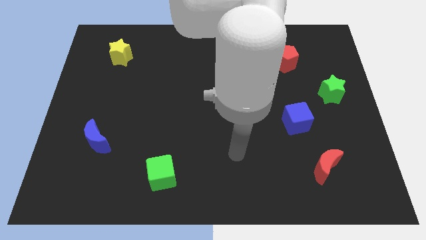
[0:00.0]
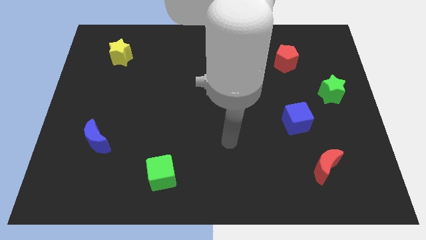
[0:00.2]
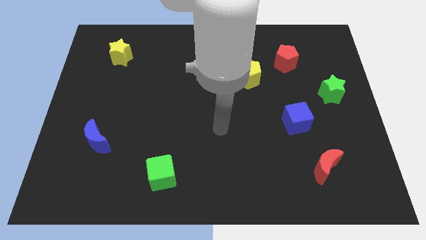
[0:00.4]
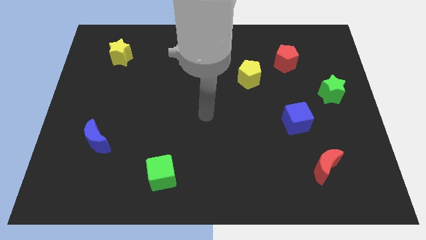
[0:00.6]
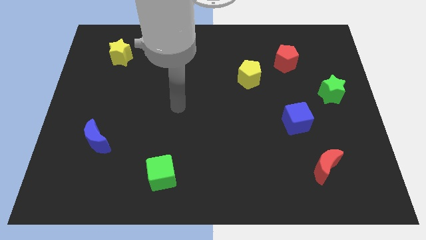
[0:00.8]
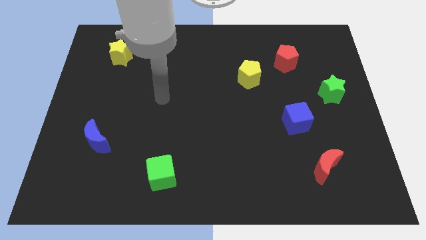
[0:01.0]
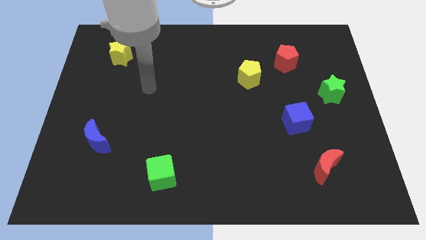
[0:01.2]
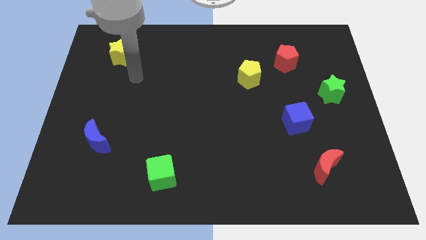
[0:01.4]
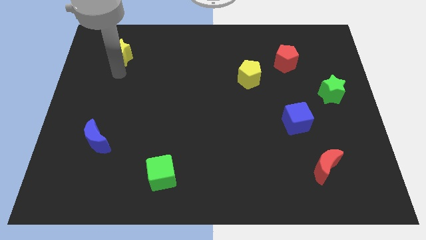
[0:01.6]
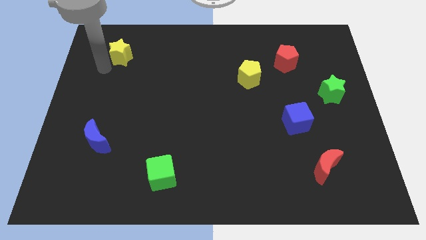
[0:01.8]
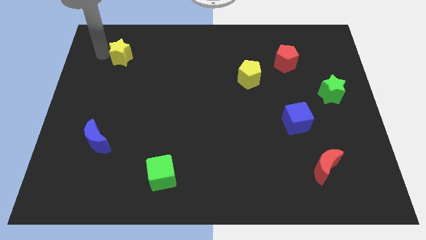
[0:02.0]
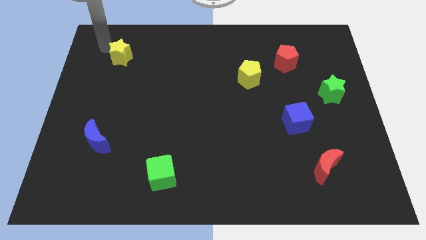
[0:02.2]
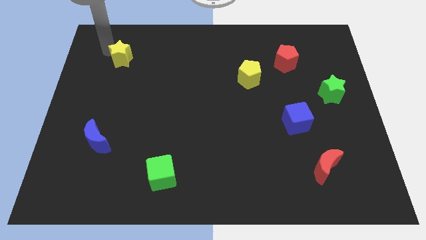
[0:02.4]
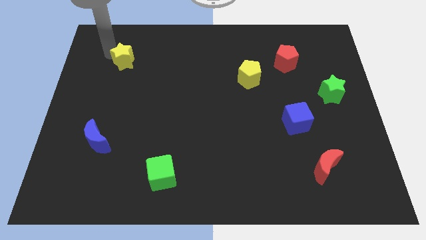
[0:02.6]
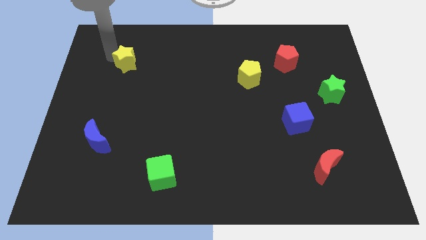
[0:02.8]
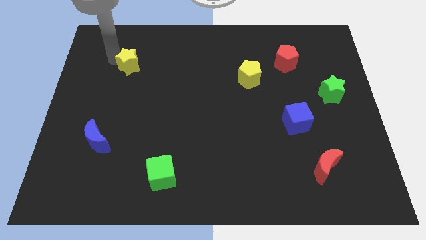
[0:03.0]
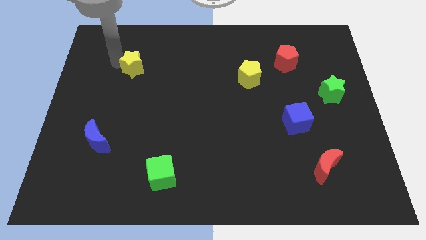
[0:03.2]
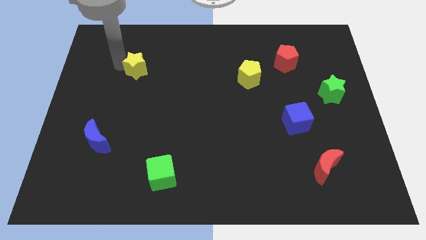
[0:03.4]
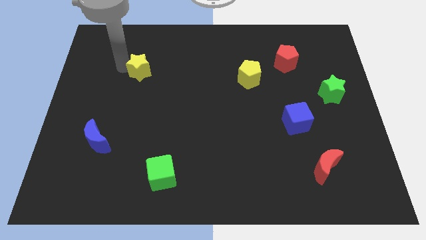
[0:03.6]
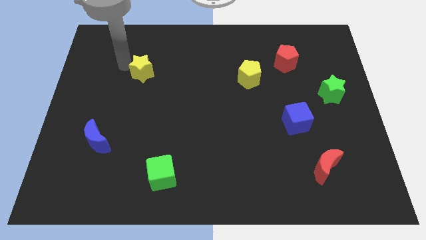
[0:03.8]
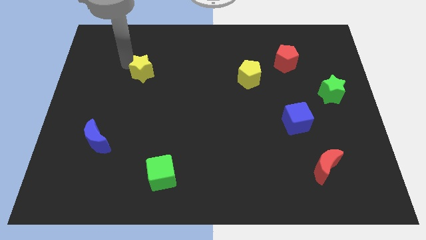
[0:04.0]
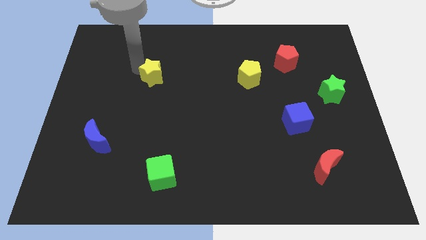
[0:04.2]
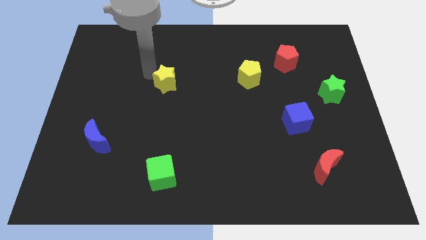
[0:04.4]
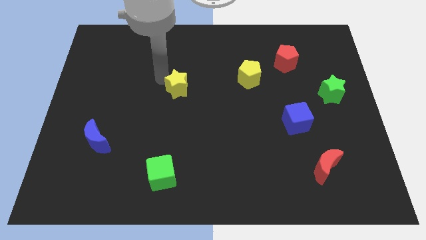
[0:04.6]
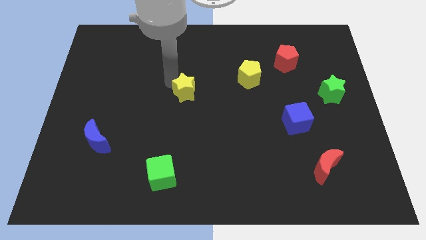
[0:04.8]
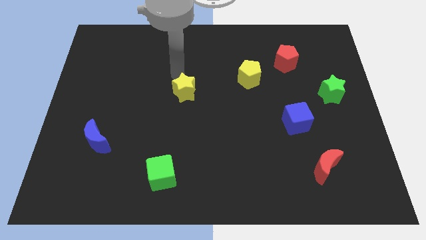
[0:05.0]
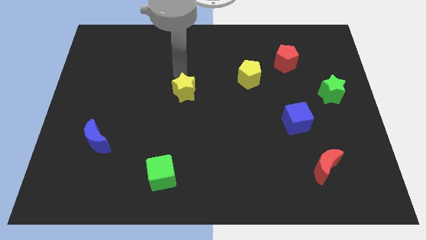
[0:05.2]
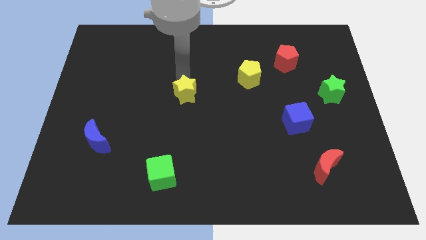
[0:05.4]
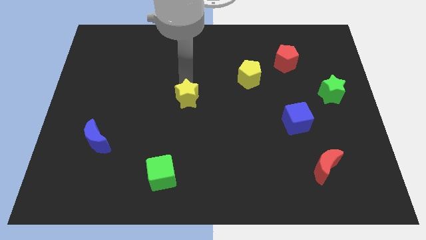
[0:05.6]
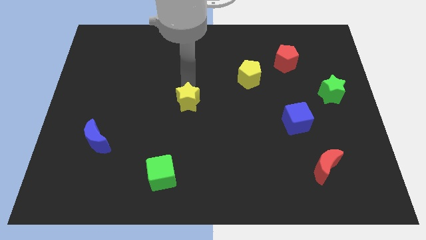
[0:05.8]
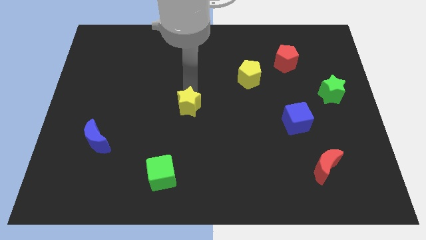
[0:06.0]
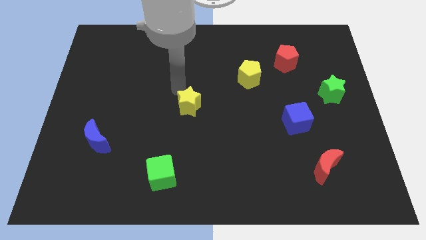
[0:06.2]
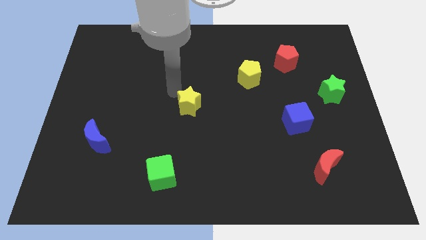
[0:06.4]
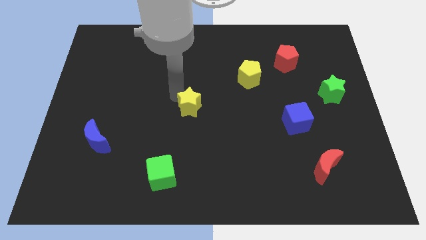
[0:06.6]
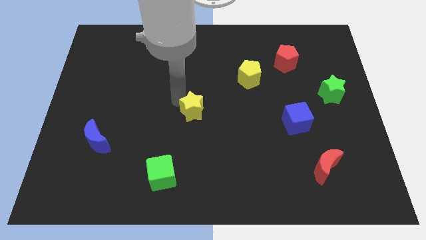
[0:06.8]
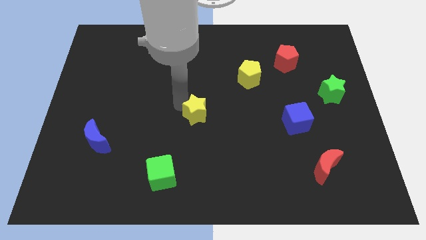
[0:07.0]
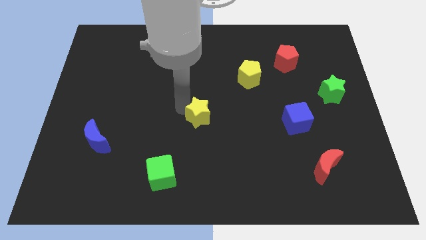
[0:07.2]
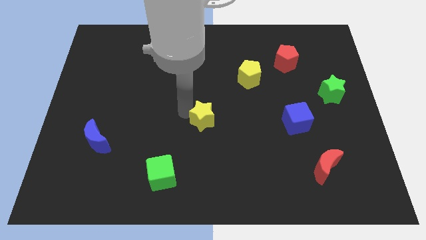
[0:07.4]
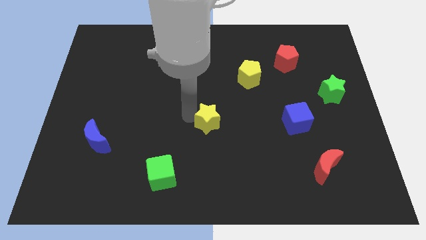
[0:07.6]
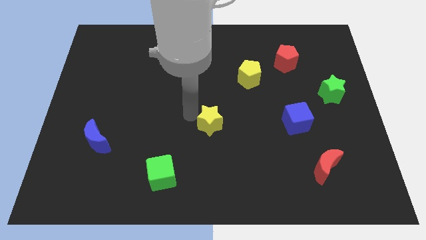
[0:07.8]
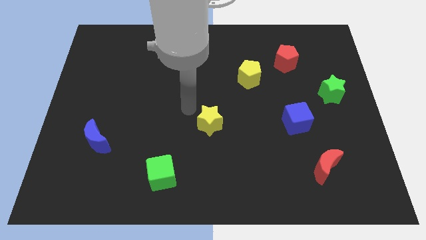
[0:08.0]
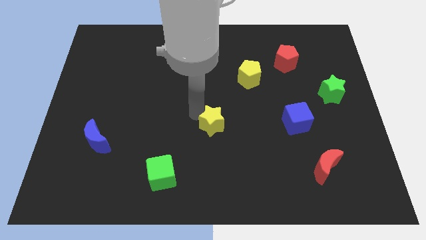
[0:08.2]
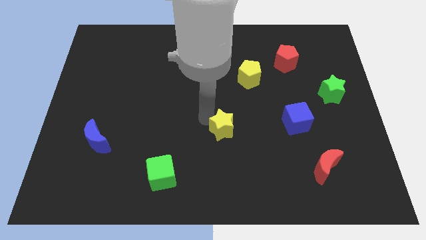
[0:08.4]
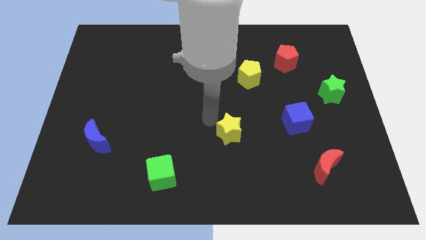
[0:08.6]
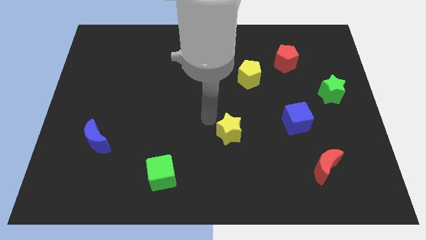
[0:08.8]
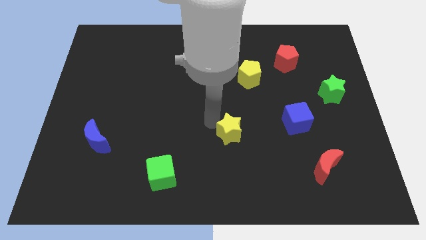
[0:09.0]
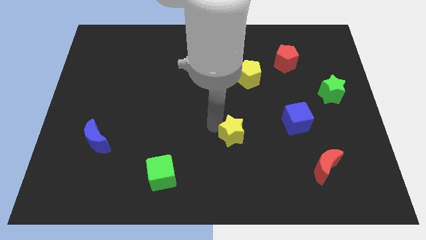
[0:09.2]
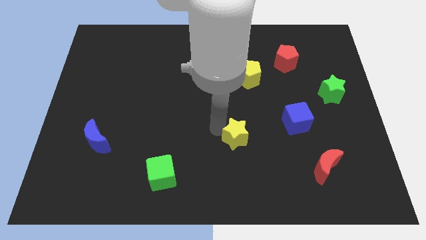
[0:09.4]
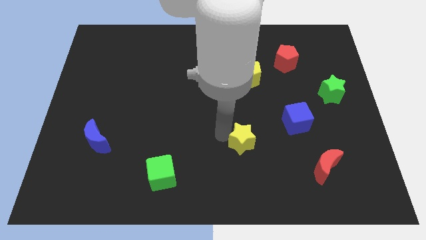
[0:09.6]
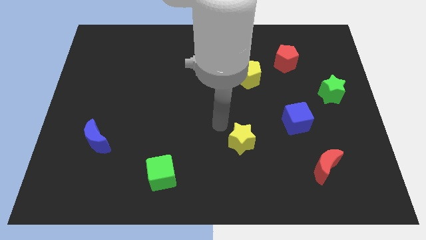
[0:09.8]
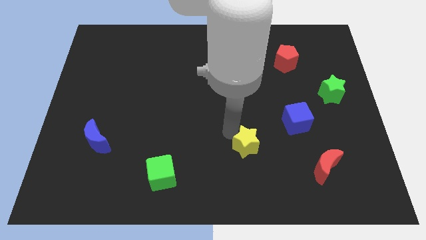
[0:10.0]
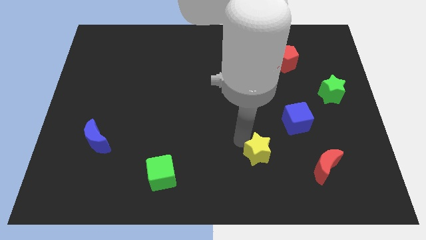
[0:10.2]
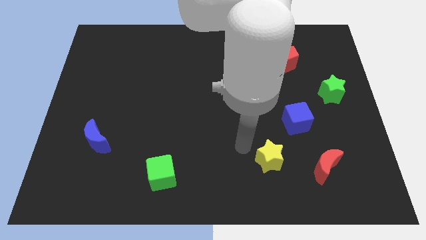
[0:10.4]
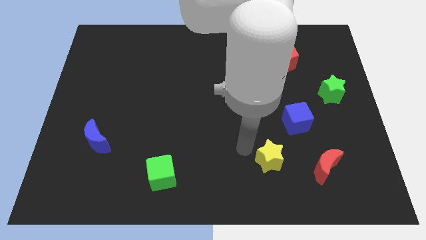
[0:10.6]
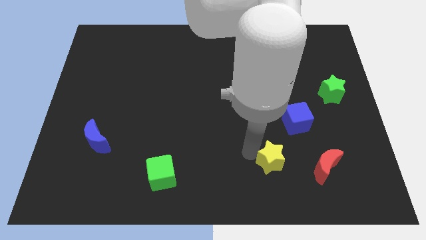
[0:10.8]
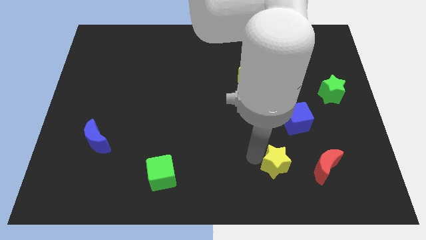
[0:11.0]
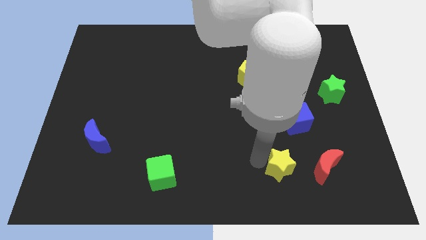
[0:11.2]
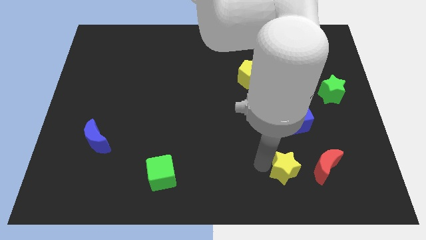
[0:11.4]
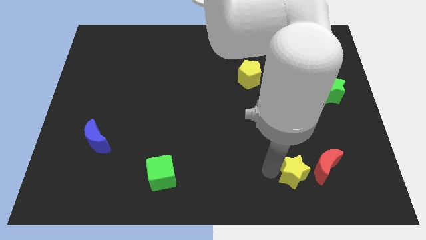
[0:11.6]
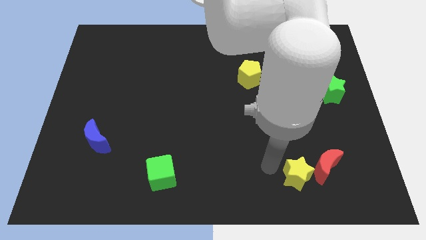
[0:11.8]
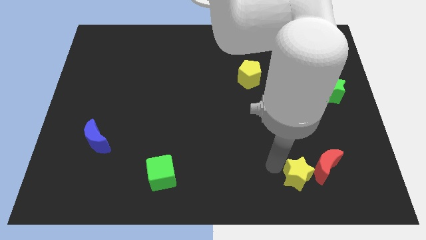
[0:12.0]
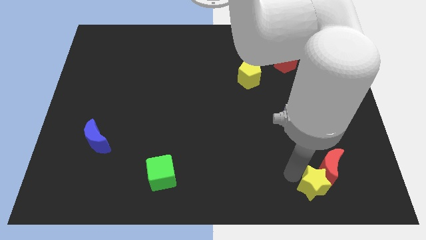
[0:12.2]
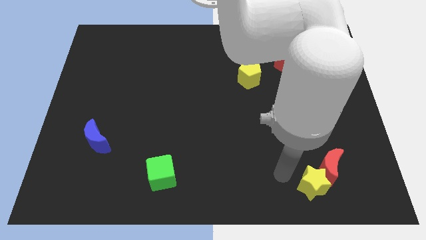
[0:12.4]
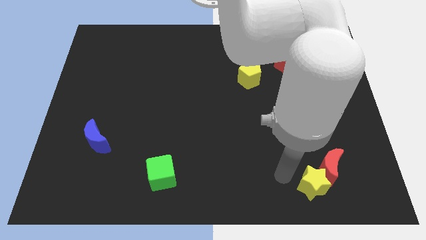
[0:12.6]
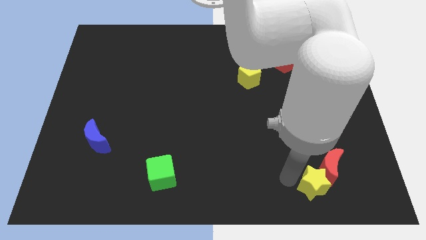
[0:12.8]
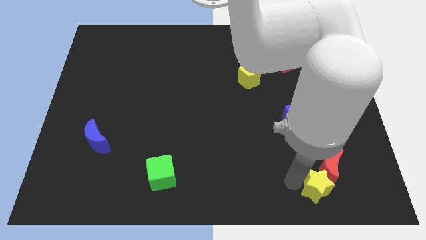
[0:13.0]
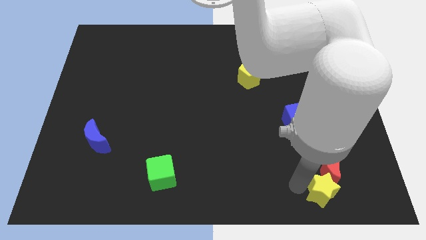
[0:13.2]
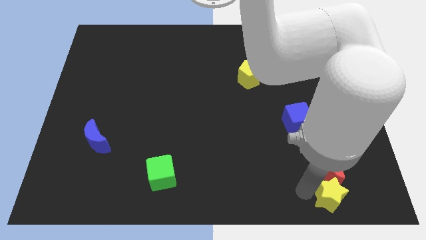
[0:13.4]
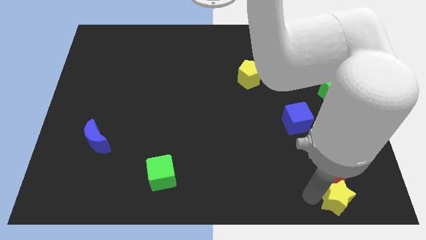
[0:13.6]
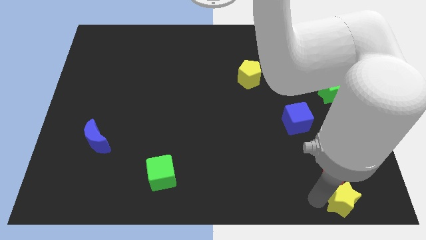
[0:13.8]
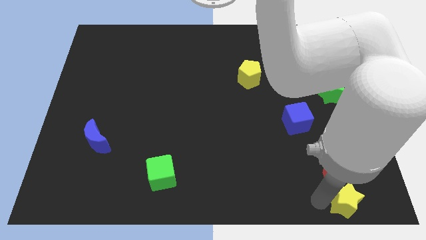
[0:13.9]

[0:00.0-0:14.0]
put the yellow star to the bottom right of the board
